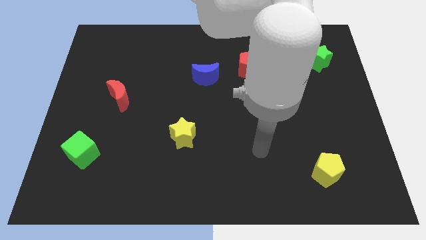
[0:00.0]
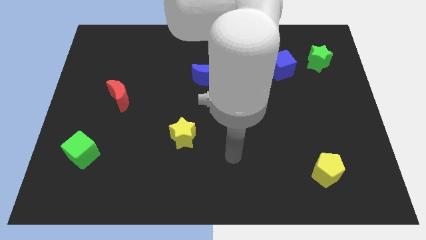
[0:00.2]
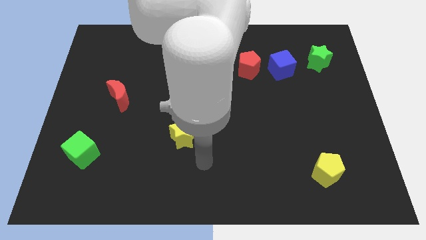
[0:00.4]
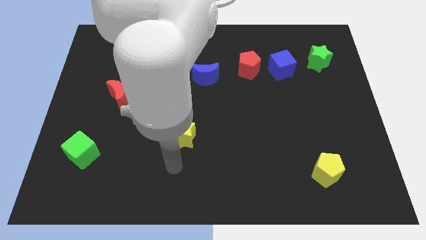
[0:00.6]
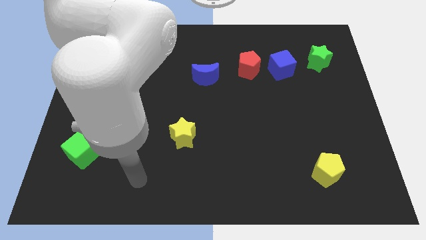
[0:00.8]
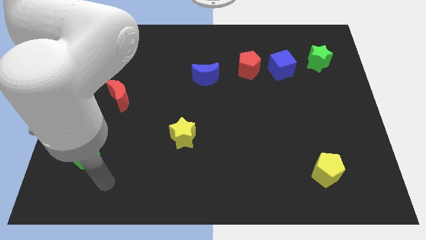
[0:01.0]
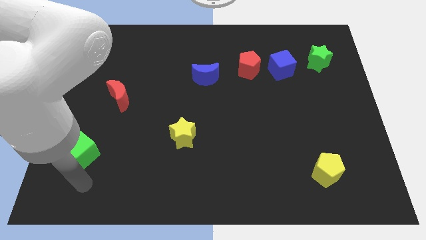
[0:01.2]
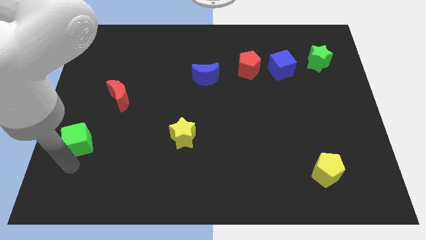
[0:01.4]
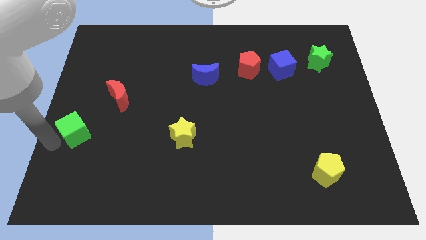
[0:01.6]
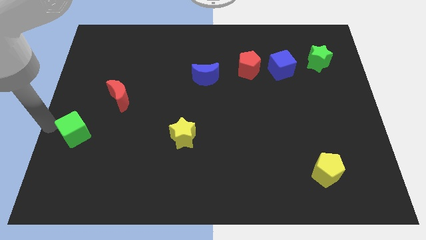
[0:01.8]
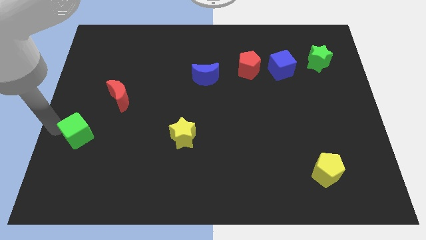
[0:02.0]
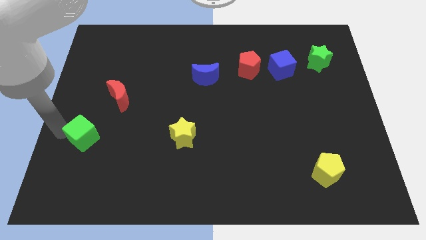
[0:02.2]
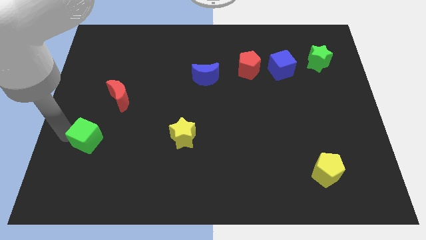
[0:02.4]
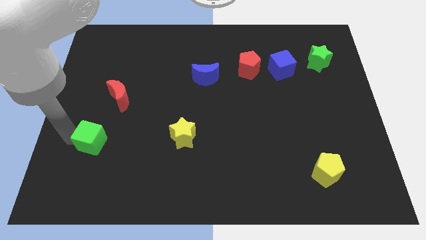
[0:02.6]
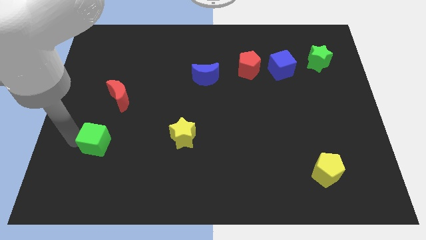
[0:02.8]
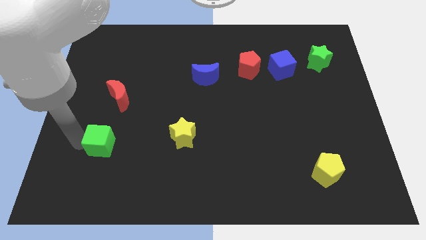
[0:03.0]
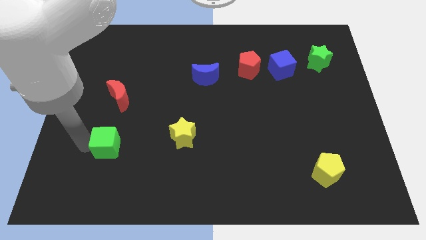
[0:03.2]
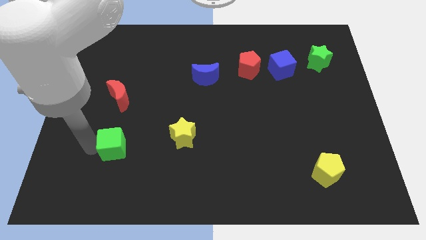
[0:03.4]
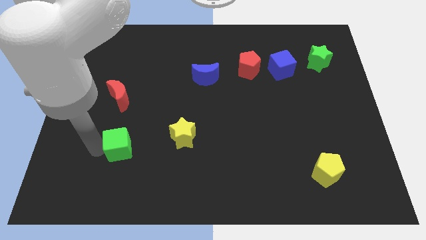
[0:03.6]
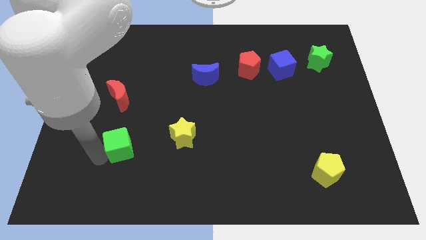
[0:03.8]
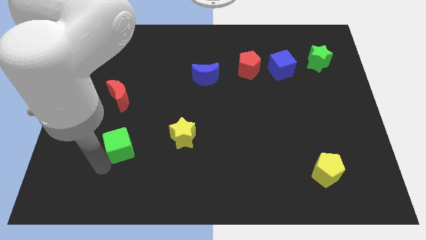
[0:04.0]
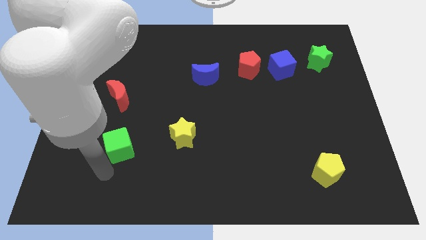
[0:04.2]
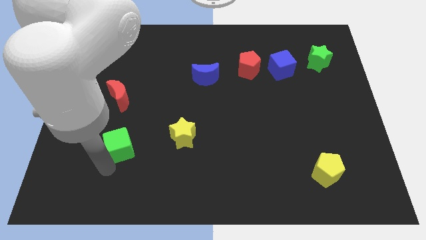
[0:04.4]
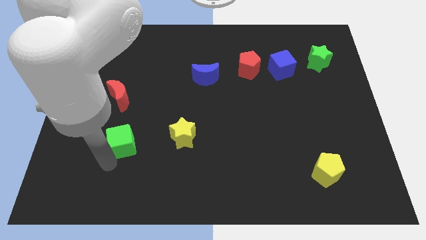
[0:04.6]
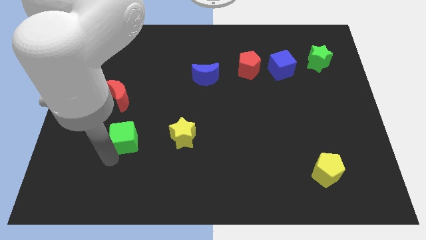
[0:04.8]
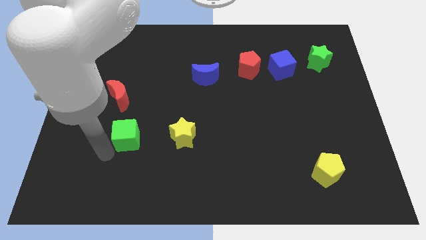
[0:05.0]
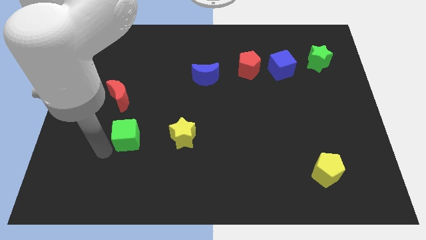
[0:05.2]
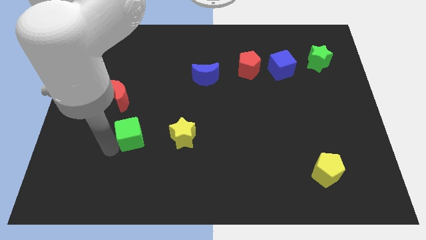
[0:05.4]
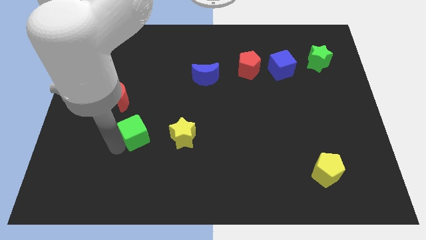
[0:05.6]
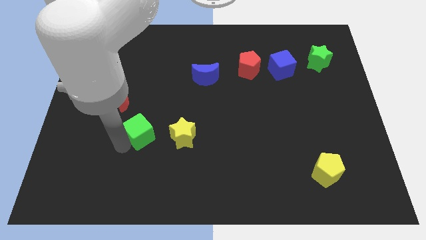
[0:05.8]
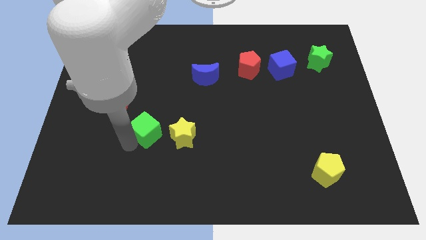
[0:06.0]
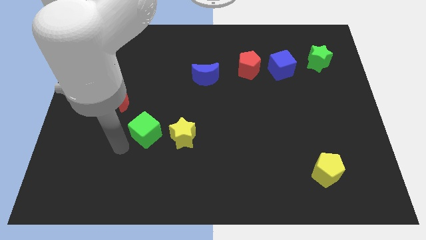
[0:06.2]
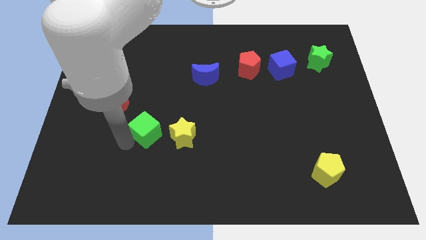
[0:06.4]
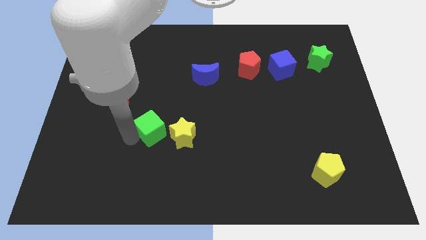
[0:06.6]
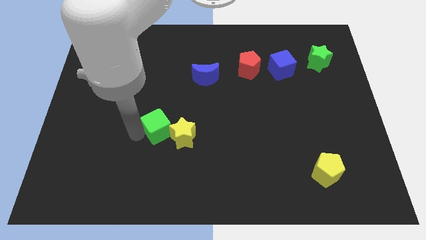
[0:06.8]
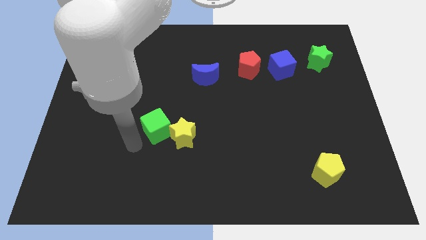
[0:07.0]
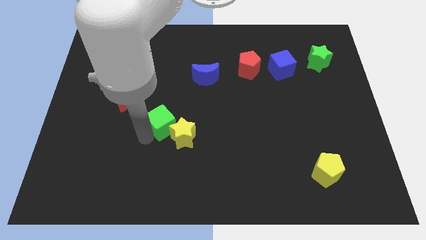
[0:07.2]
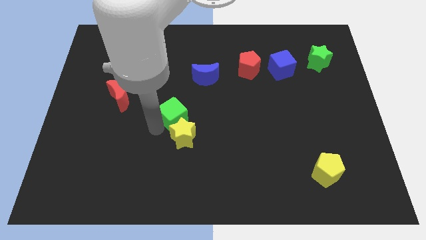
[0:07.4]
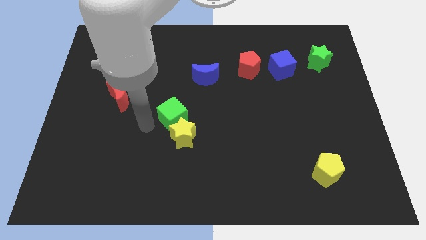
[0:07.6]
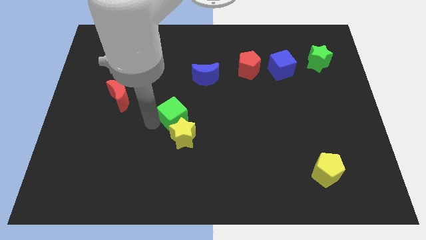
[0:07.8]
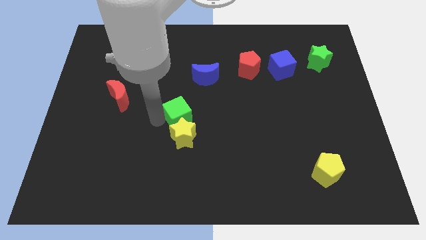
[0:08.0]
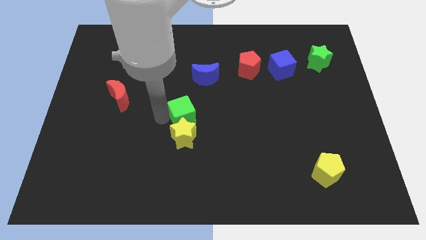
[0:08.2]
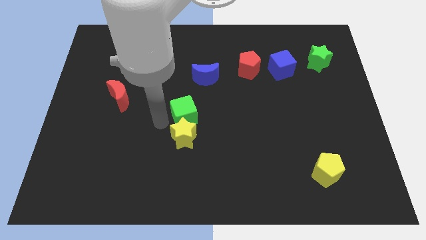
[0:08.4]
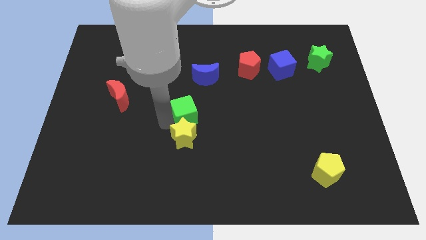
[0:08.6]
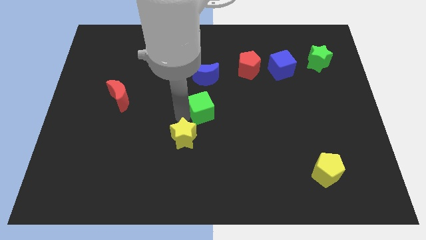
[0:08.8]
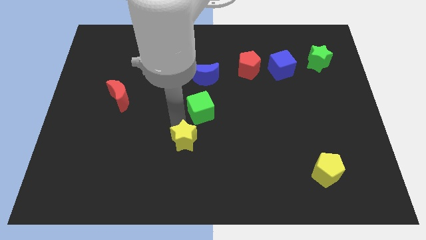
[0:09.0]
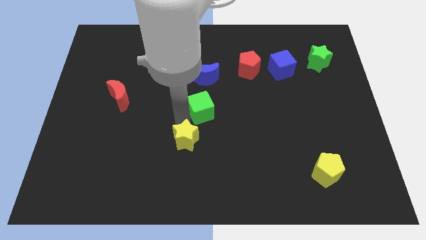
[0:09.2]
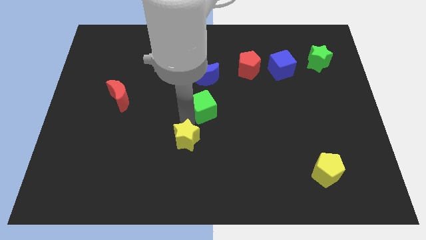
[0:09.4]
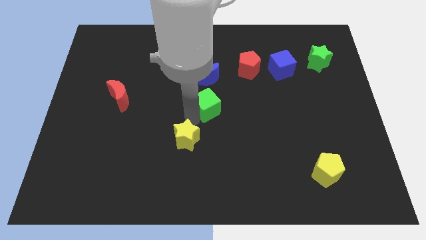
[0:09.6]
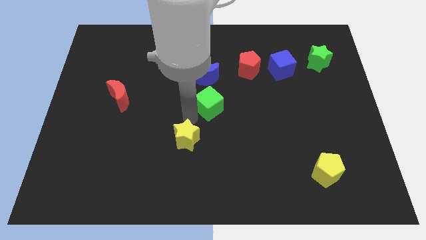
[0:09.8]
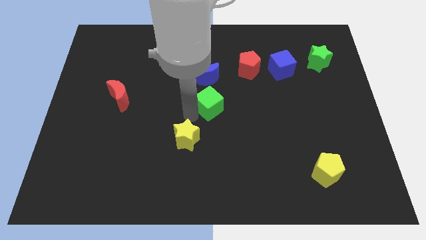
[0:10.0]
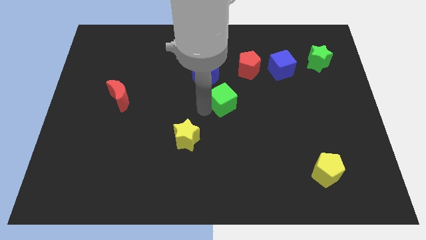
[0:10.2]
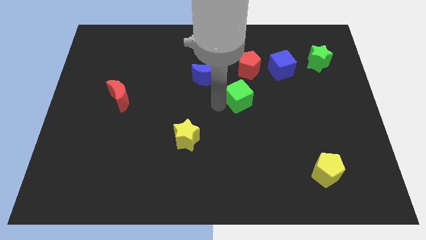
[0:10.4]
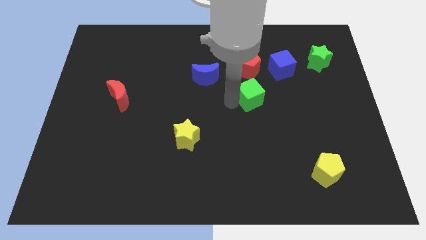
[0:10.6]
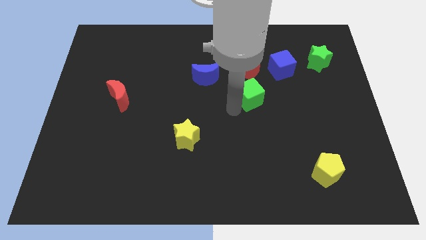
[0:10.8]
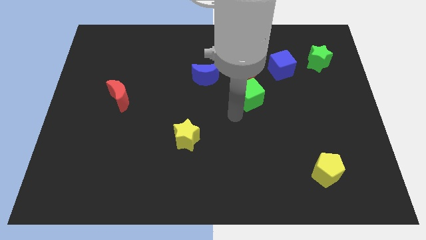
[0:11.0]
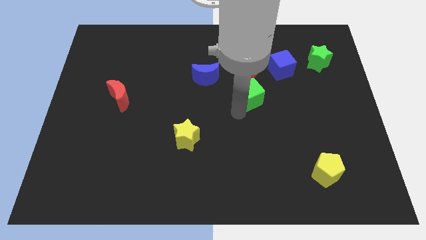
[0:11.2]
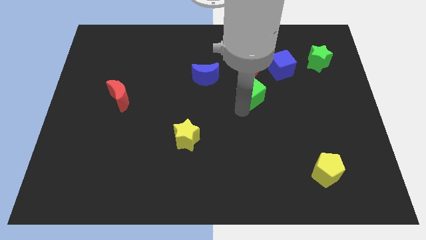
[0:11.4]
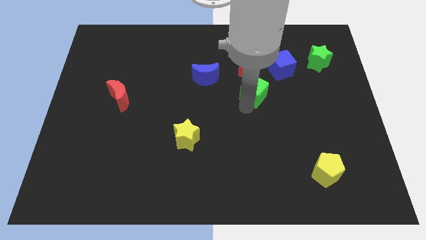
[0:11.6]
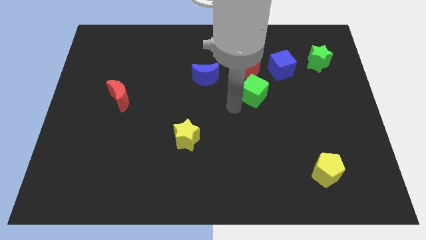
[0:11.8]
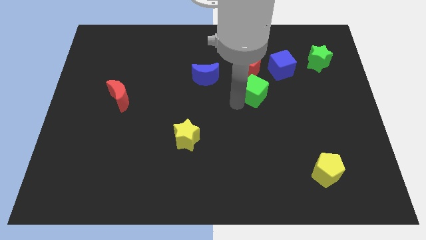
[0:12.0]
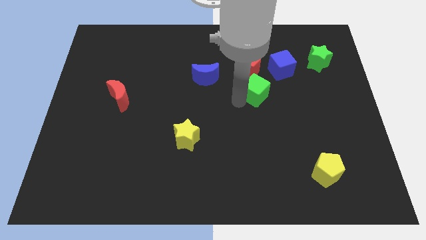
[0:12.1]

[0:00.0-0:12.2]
put the green cube diagonally down and to the right of the red pentagon

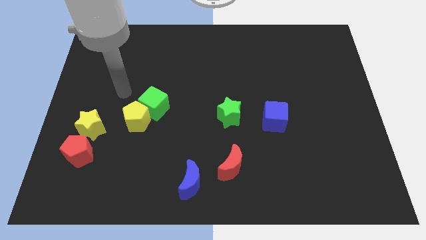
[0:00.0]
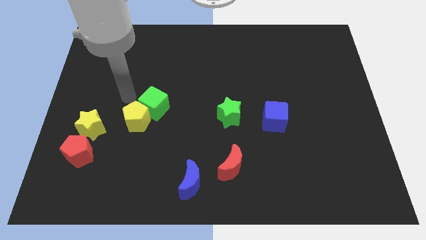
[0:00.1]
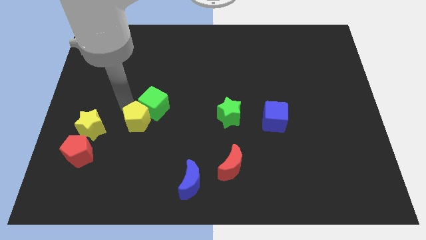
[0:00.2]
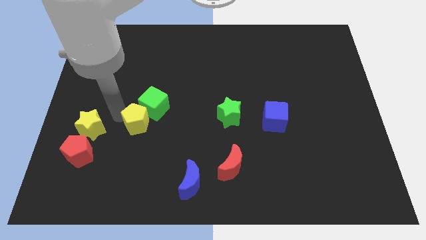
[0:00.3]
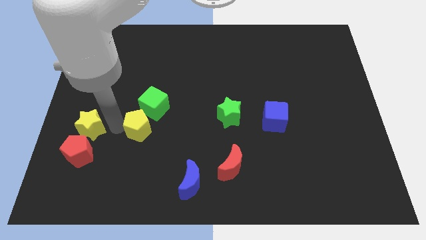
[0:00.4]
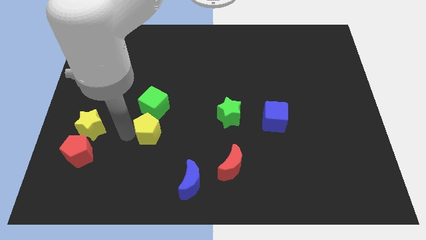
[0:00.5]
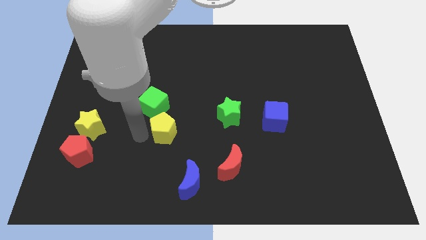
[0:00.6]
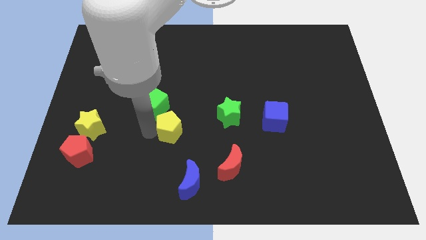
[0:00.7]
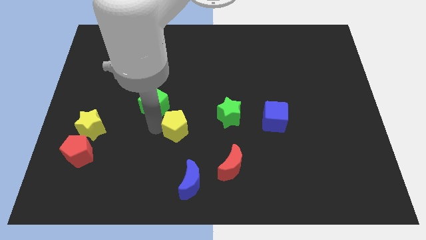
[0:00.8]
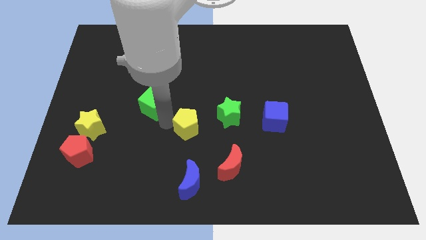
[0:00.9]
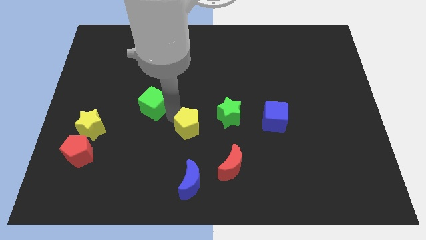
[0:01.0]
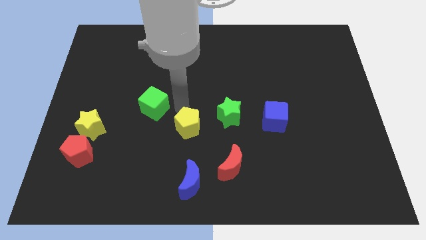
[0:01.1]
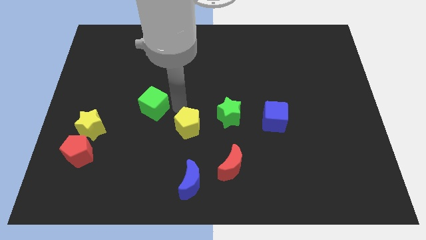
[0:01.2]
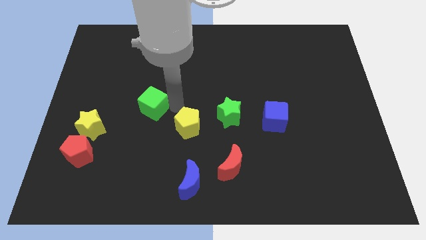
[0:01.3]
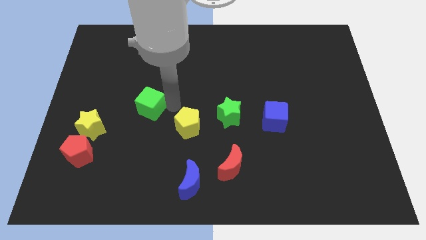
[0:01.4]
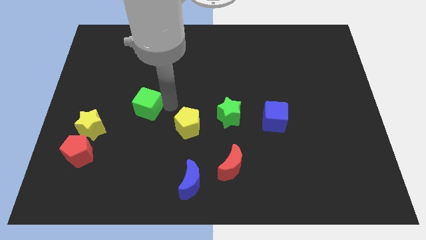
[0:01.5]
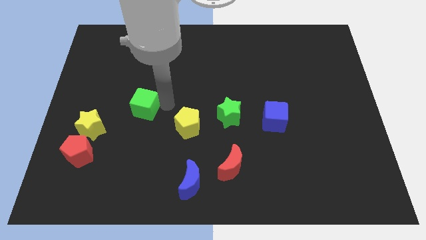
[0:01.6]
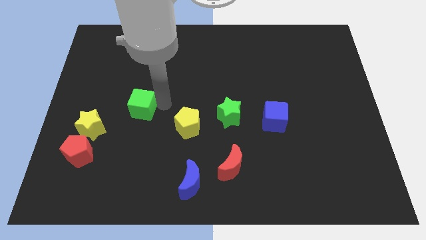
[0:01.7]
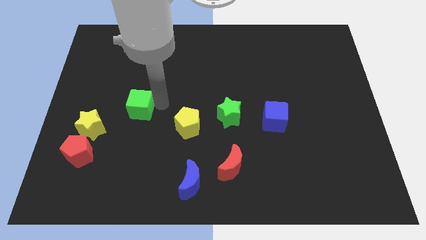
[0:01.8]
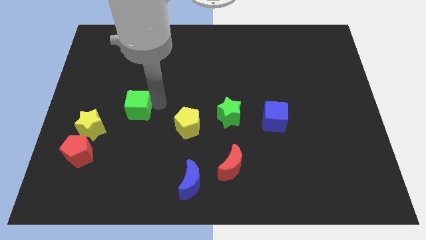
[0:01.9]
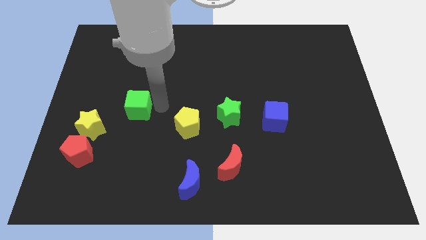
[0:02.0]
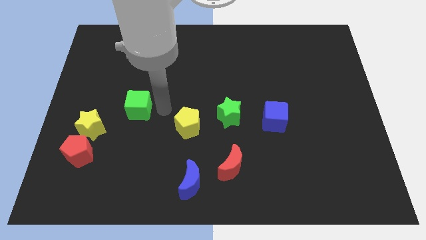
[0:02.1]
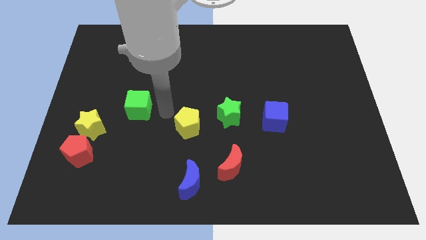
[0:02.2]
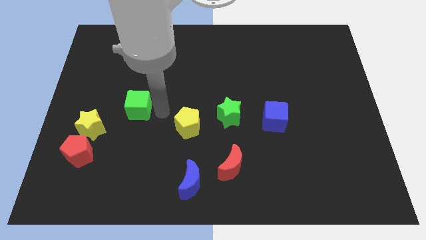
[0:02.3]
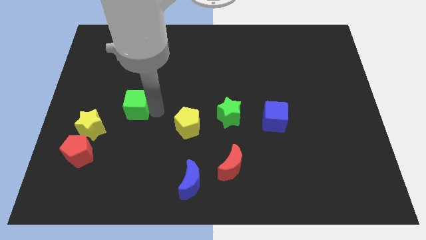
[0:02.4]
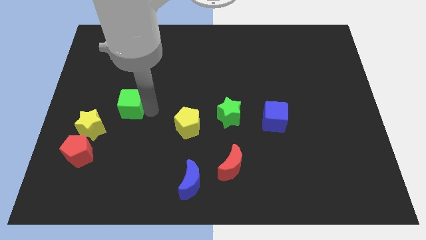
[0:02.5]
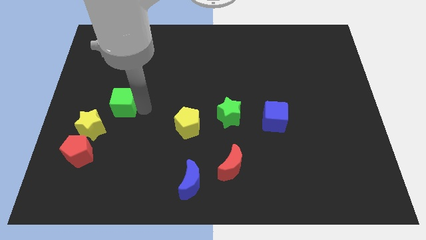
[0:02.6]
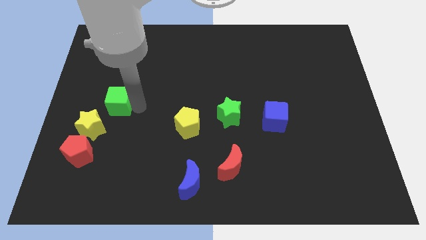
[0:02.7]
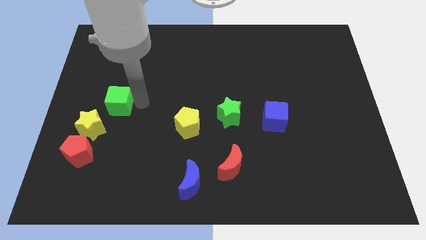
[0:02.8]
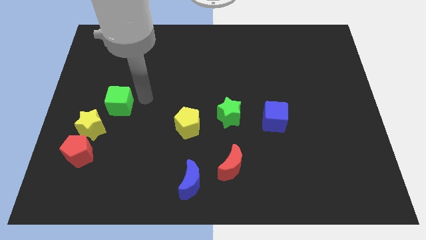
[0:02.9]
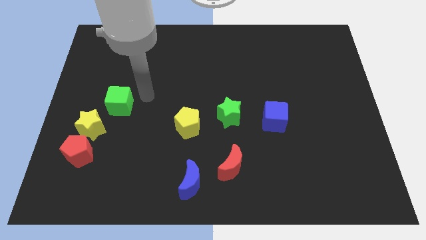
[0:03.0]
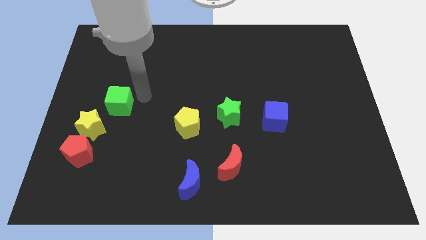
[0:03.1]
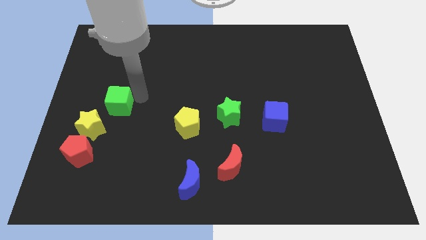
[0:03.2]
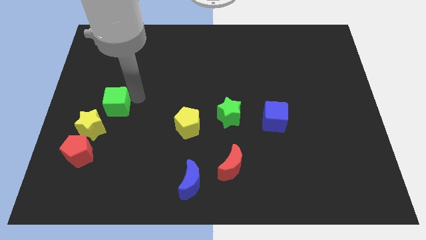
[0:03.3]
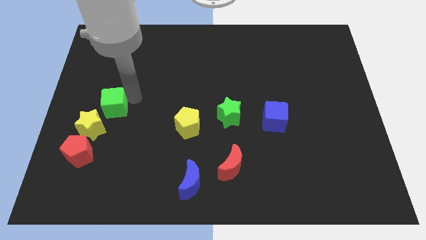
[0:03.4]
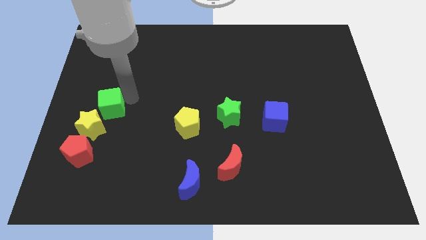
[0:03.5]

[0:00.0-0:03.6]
push the green cube above the red pentagon
